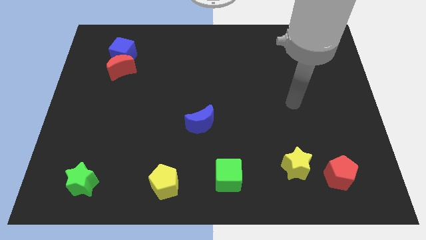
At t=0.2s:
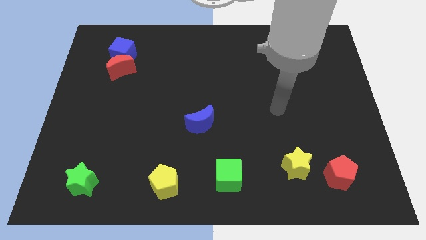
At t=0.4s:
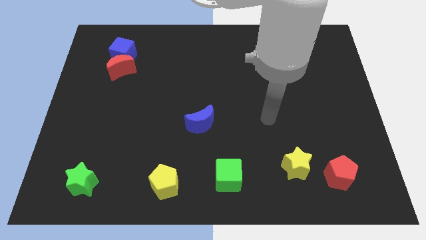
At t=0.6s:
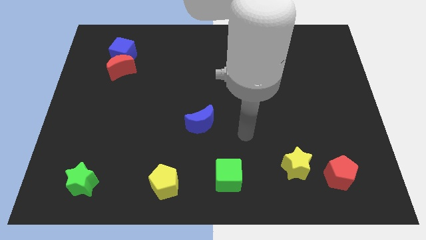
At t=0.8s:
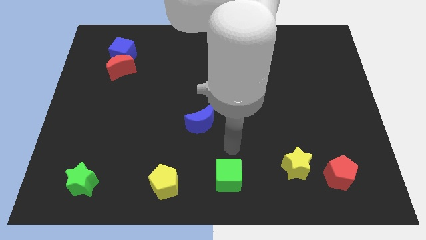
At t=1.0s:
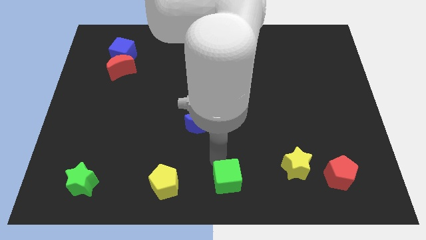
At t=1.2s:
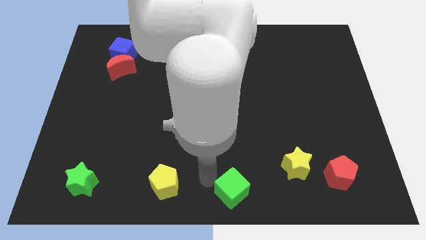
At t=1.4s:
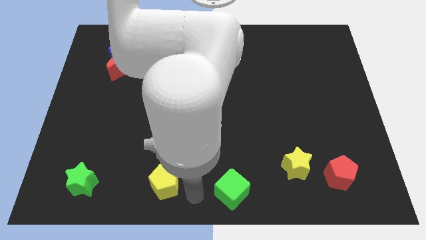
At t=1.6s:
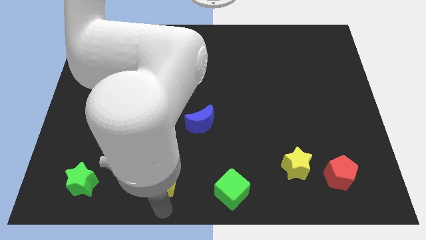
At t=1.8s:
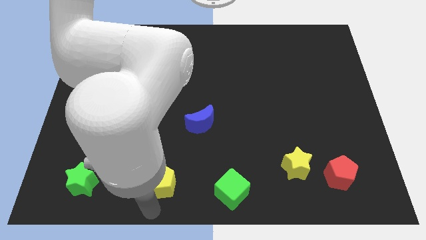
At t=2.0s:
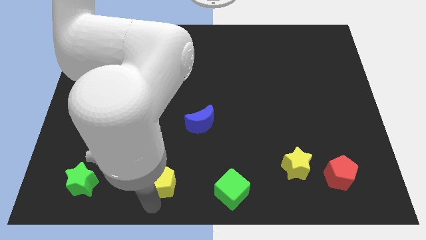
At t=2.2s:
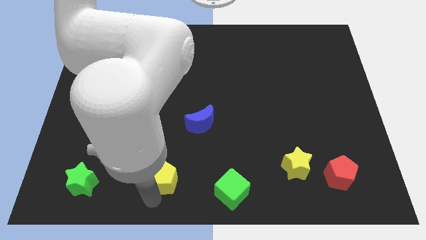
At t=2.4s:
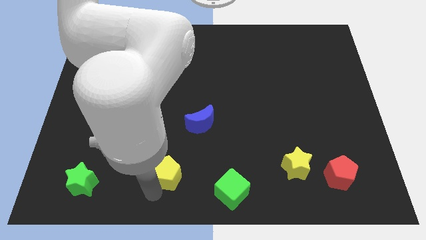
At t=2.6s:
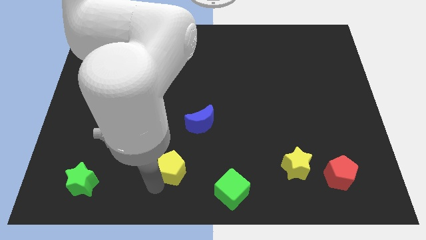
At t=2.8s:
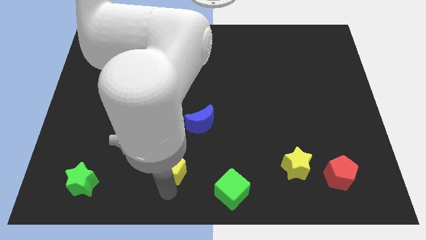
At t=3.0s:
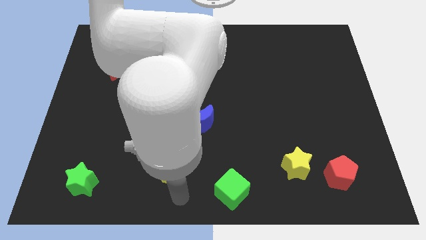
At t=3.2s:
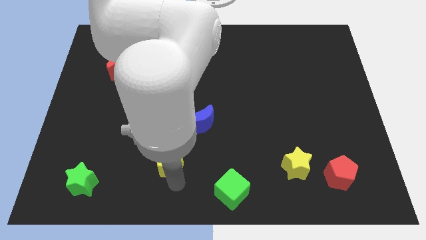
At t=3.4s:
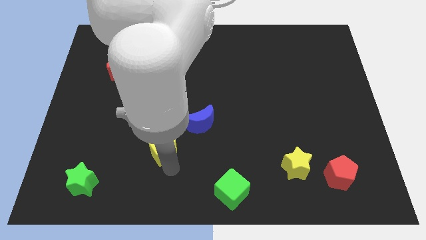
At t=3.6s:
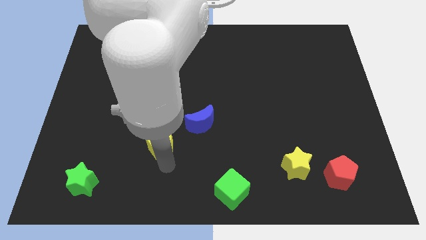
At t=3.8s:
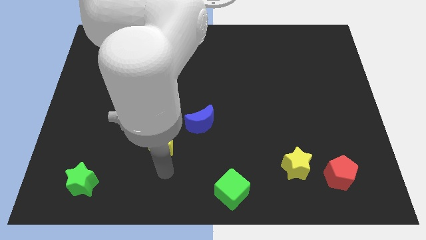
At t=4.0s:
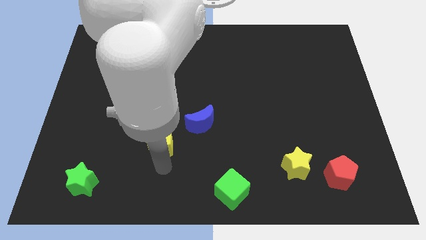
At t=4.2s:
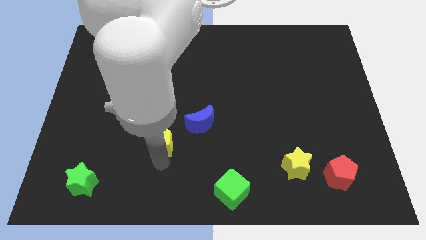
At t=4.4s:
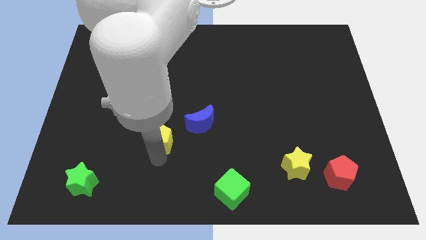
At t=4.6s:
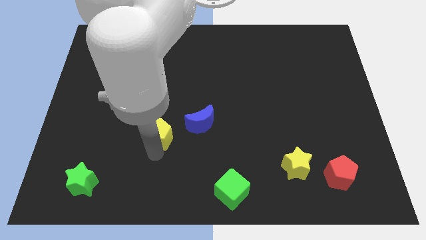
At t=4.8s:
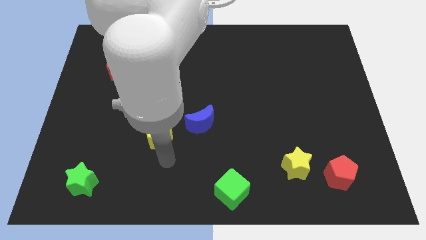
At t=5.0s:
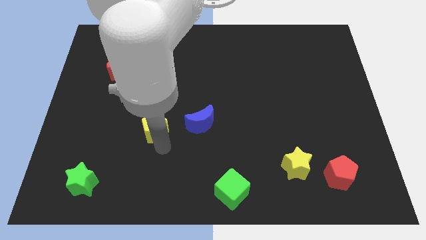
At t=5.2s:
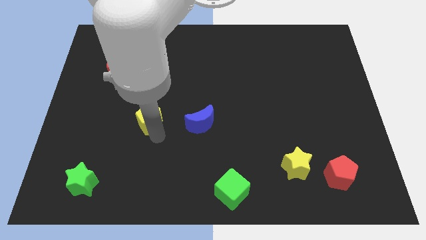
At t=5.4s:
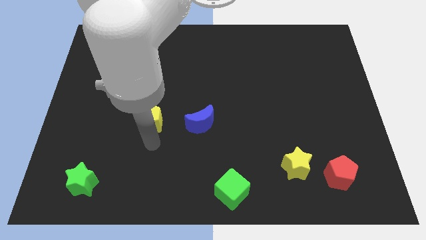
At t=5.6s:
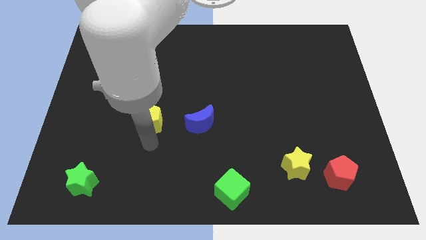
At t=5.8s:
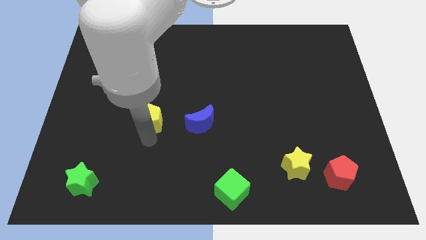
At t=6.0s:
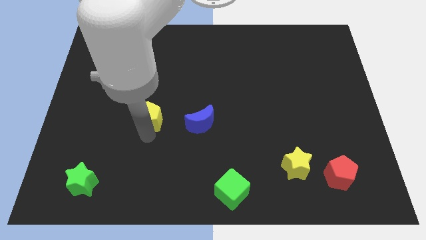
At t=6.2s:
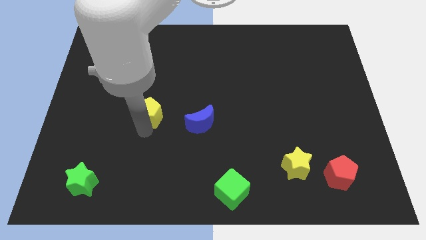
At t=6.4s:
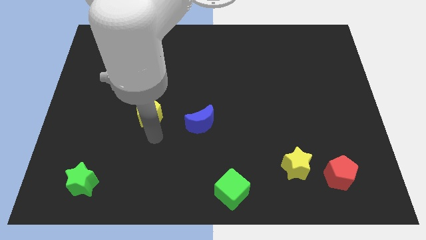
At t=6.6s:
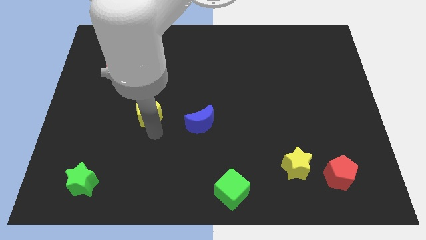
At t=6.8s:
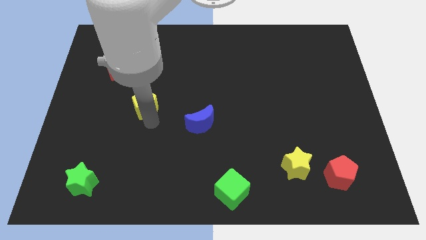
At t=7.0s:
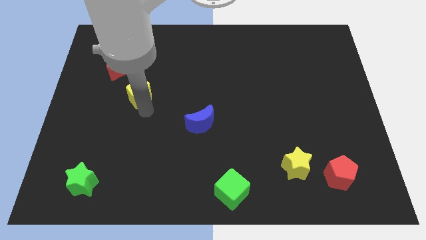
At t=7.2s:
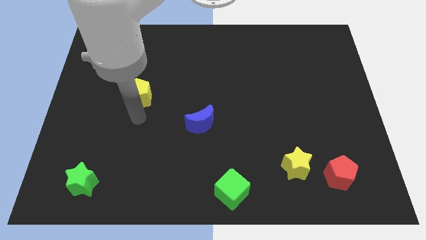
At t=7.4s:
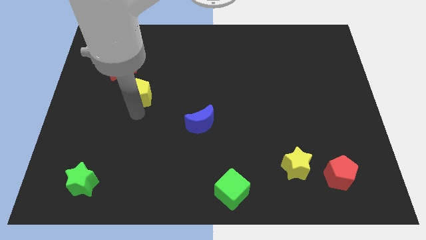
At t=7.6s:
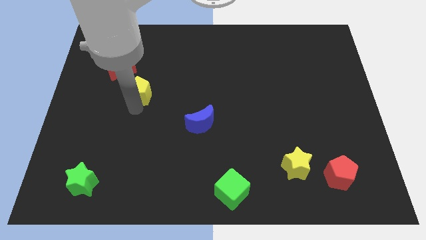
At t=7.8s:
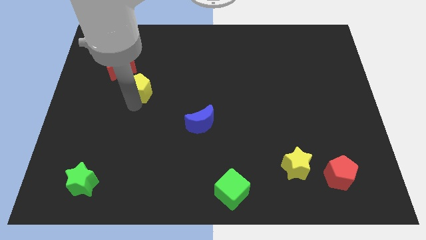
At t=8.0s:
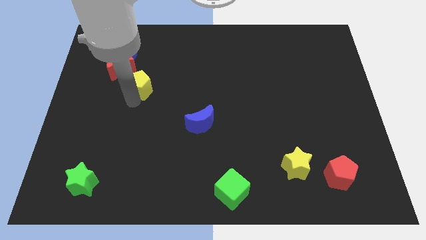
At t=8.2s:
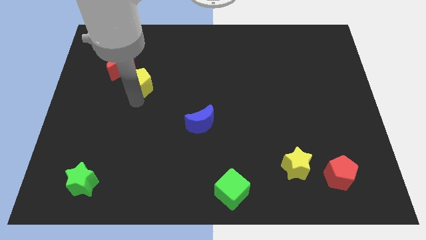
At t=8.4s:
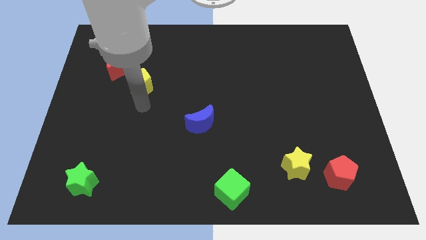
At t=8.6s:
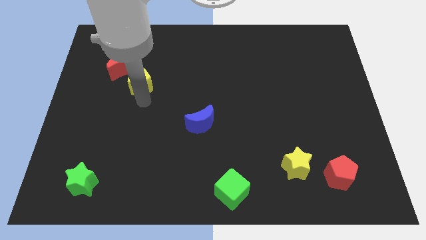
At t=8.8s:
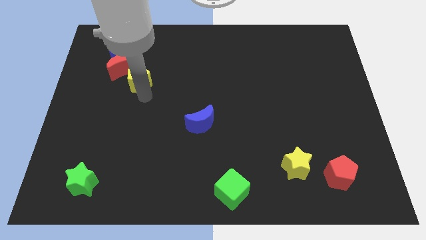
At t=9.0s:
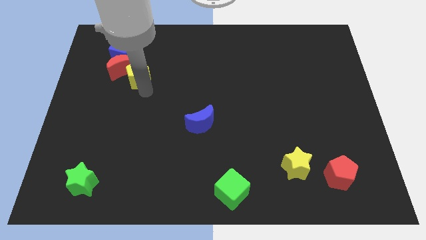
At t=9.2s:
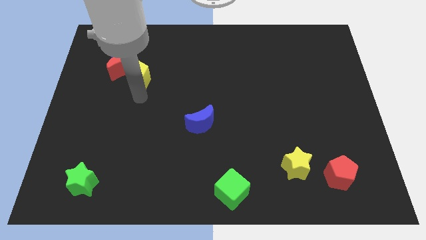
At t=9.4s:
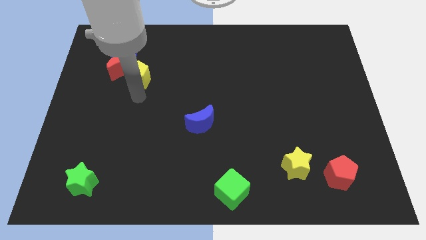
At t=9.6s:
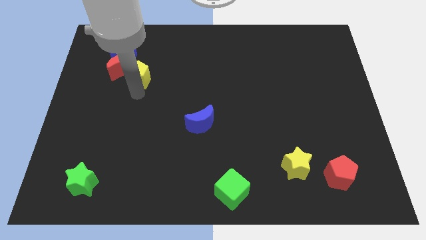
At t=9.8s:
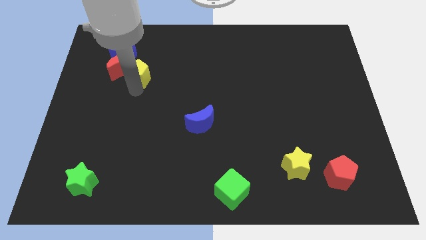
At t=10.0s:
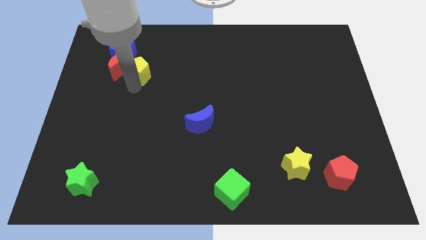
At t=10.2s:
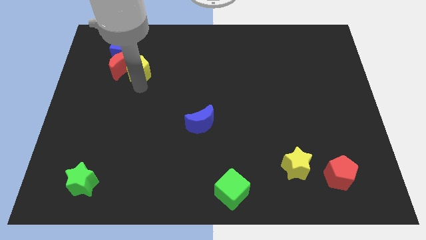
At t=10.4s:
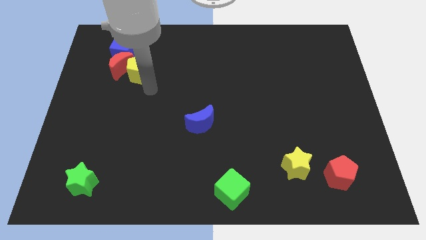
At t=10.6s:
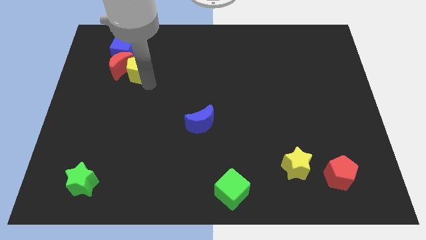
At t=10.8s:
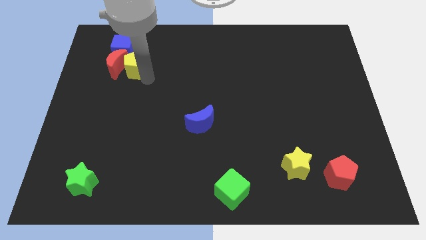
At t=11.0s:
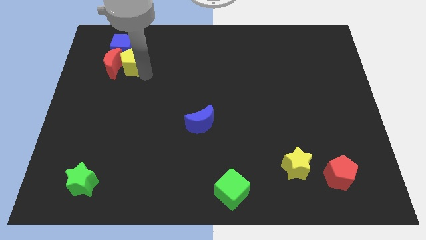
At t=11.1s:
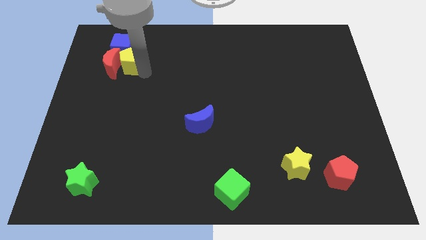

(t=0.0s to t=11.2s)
move the yellow pentagon next to the blue cube

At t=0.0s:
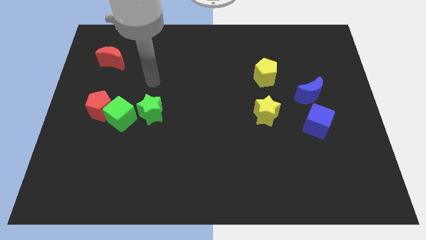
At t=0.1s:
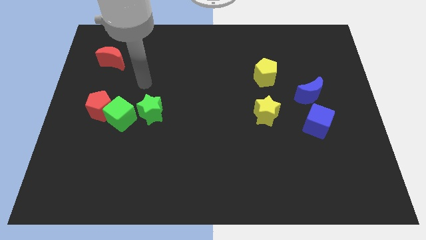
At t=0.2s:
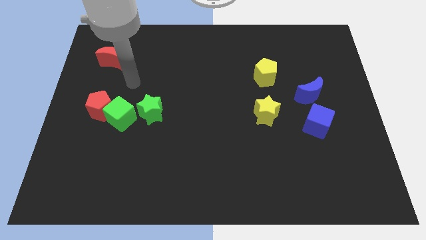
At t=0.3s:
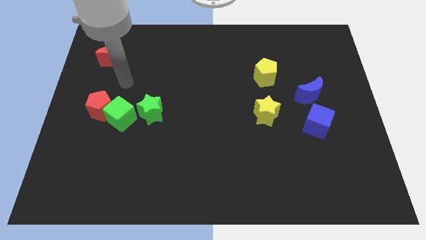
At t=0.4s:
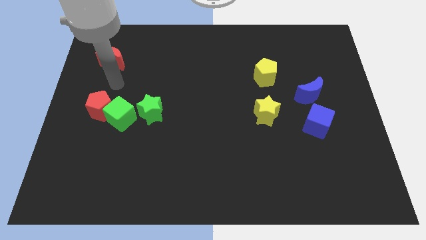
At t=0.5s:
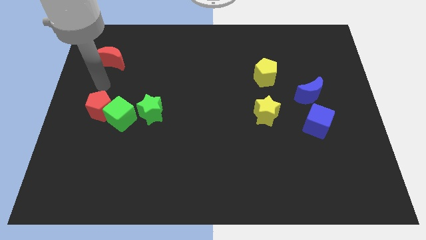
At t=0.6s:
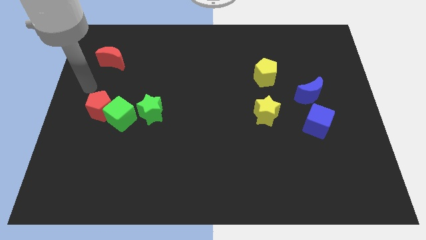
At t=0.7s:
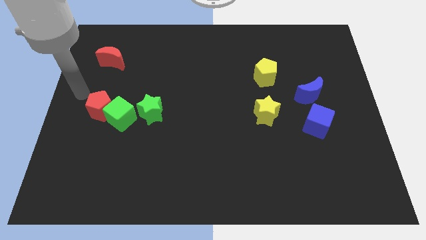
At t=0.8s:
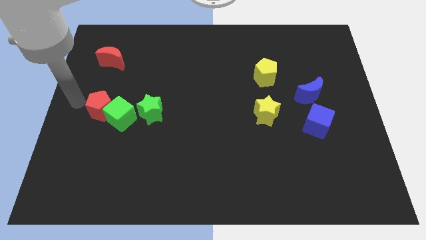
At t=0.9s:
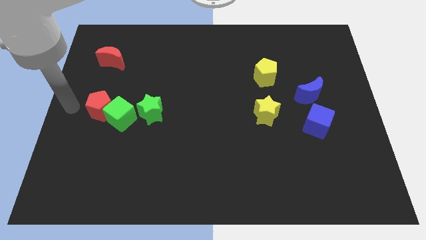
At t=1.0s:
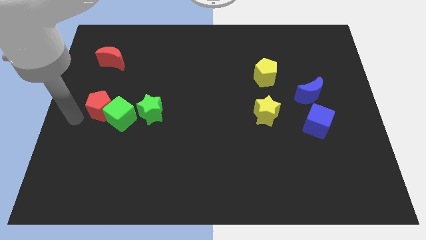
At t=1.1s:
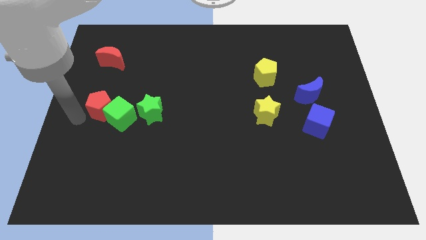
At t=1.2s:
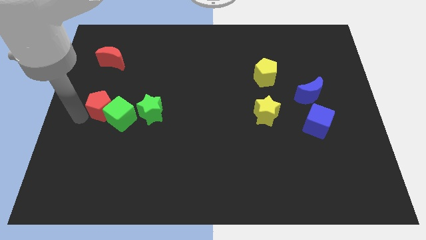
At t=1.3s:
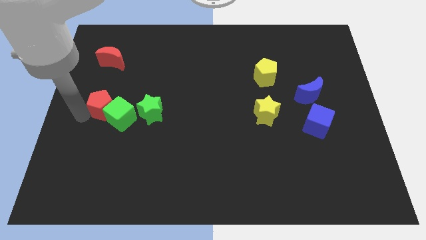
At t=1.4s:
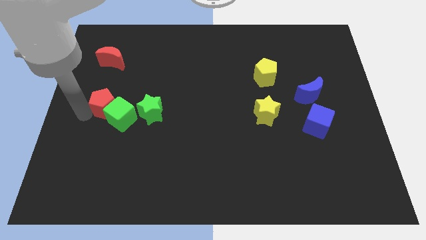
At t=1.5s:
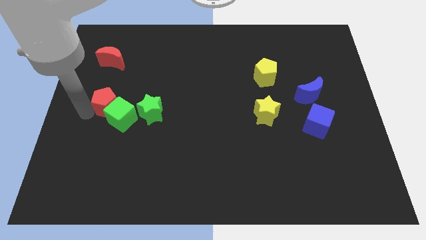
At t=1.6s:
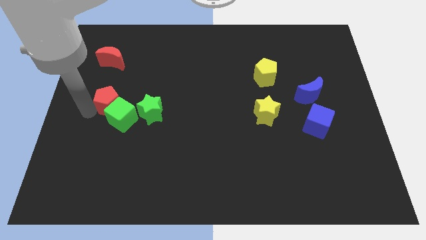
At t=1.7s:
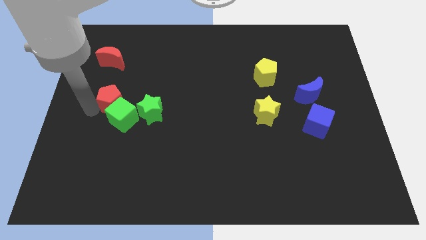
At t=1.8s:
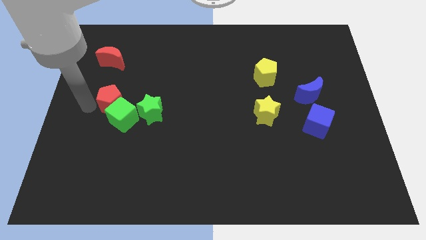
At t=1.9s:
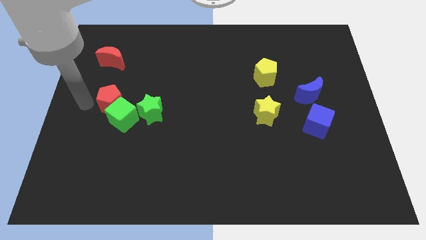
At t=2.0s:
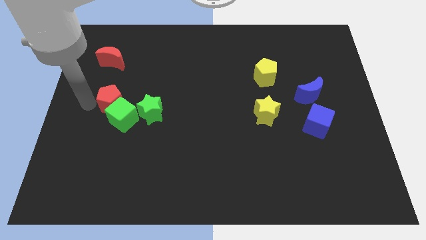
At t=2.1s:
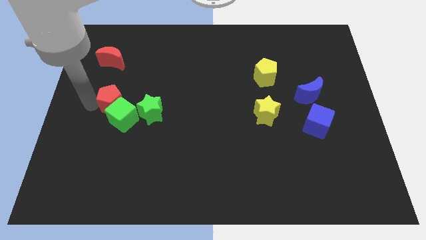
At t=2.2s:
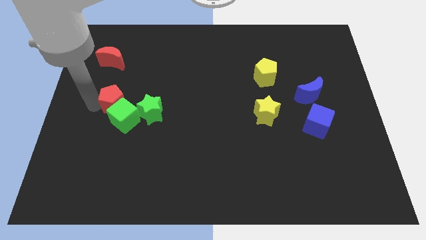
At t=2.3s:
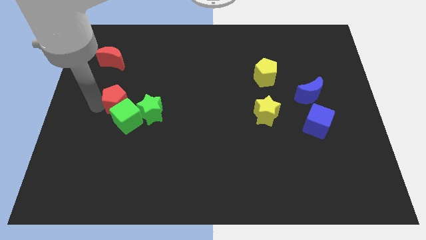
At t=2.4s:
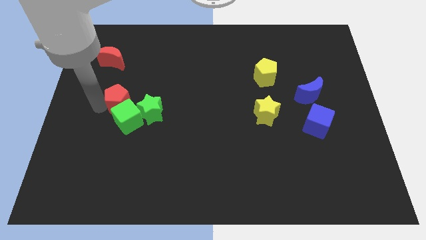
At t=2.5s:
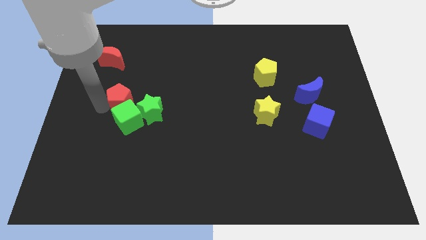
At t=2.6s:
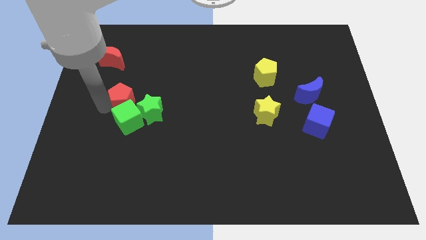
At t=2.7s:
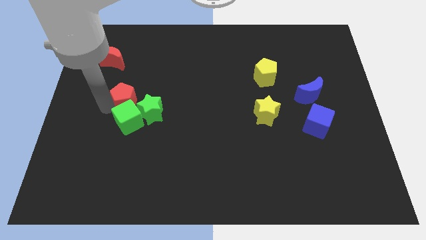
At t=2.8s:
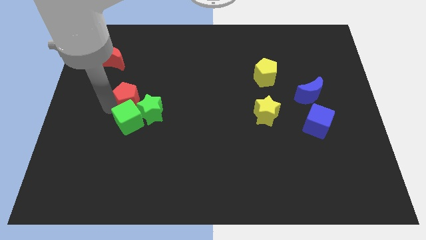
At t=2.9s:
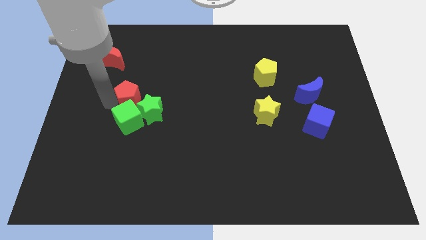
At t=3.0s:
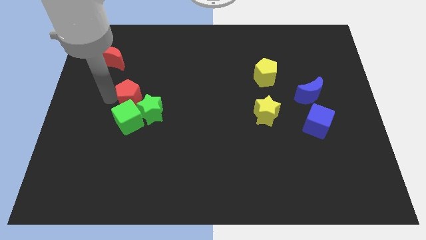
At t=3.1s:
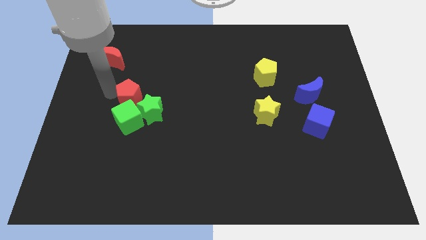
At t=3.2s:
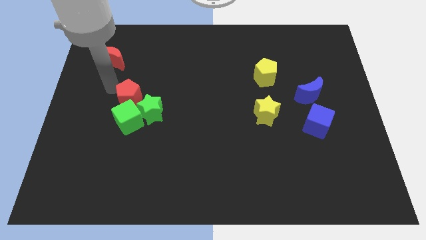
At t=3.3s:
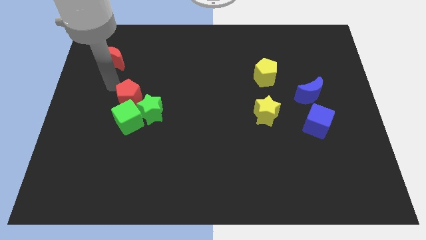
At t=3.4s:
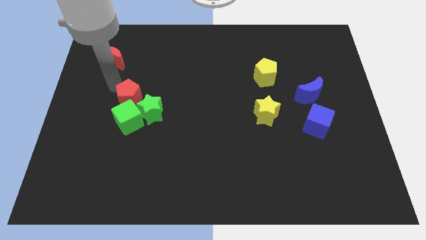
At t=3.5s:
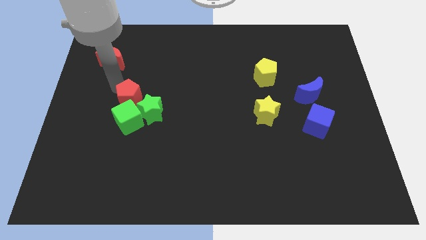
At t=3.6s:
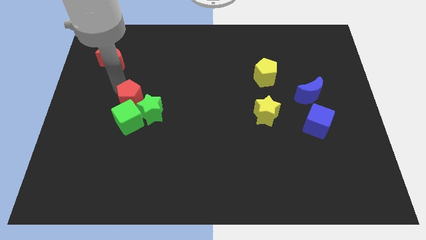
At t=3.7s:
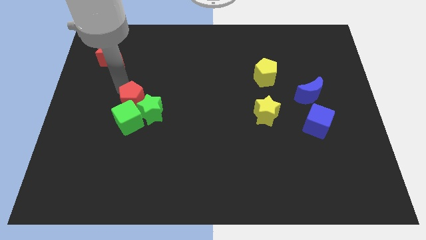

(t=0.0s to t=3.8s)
push the red pentagon close to the green star
